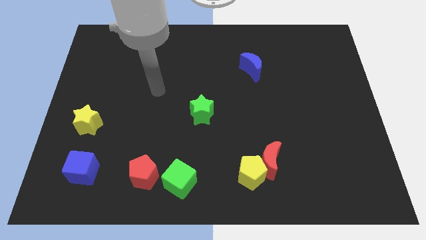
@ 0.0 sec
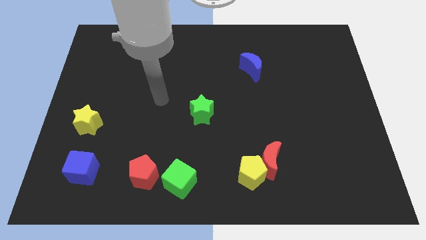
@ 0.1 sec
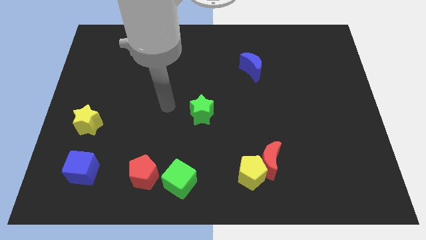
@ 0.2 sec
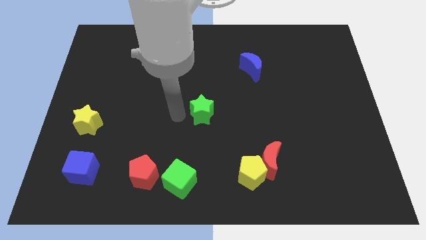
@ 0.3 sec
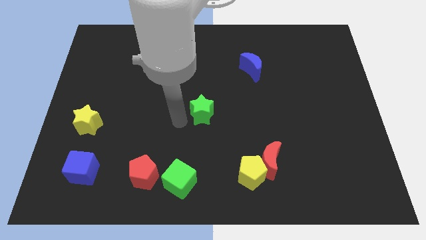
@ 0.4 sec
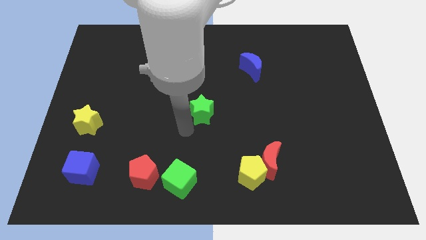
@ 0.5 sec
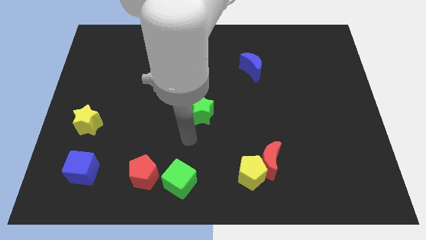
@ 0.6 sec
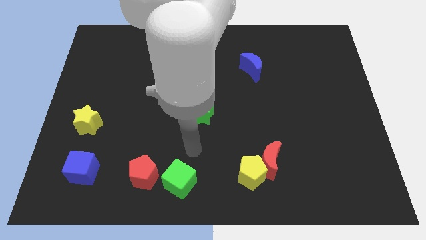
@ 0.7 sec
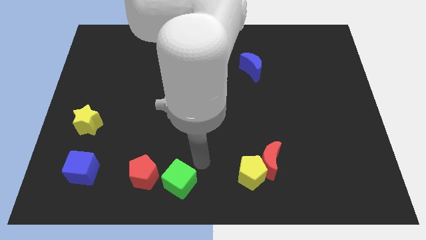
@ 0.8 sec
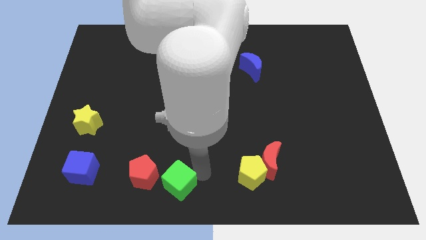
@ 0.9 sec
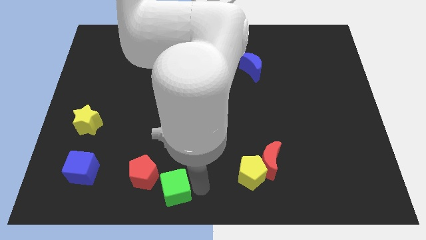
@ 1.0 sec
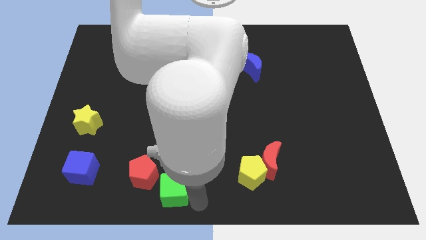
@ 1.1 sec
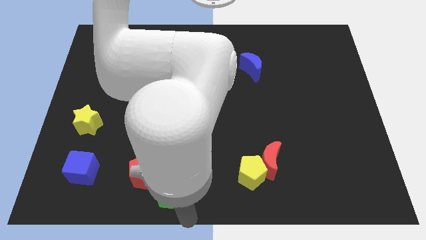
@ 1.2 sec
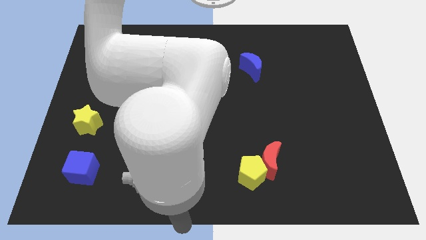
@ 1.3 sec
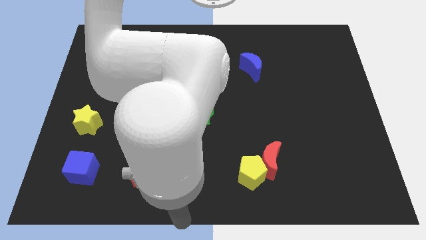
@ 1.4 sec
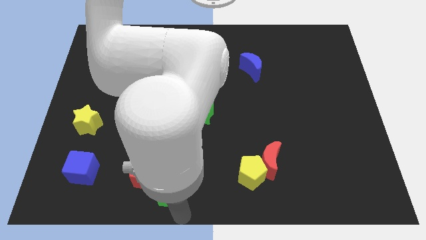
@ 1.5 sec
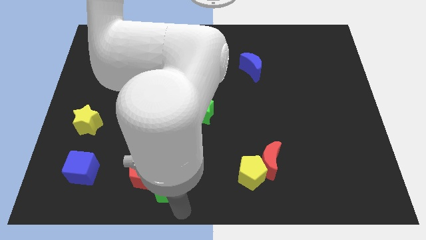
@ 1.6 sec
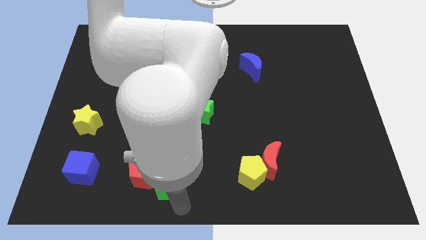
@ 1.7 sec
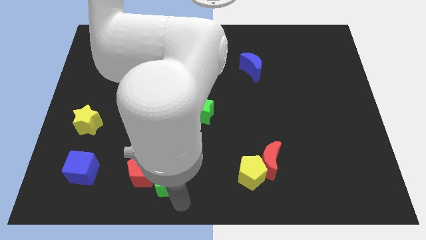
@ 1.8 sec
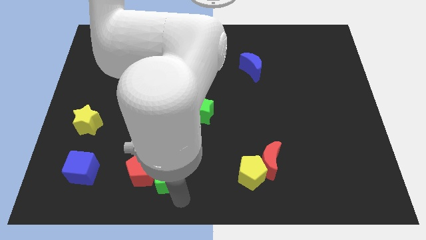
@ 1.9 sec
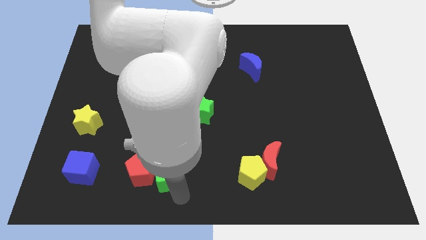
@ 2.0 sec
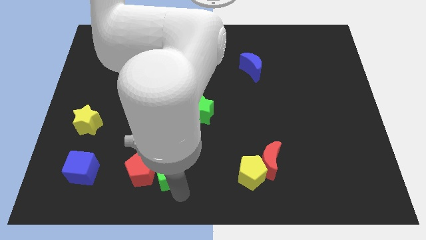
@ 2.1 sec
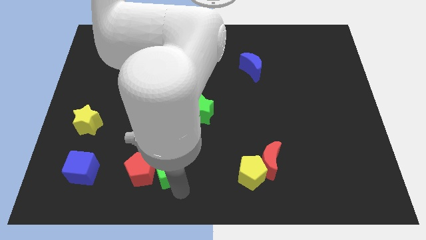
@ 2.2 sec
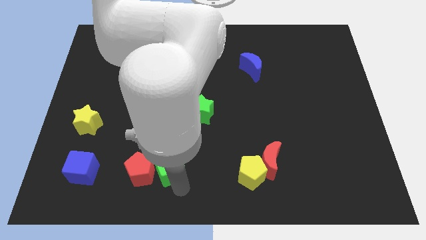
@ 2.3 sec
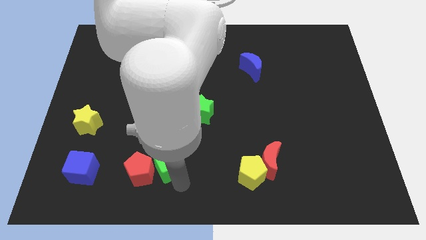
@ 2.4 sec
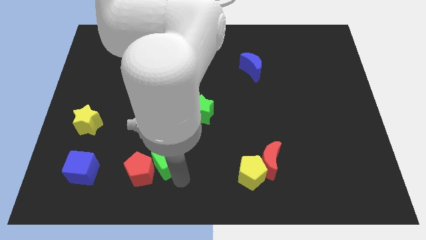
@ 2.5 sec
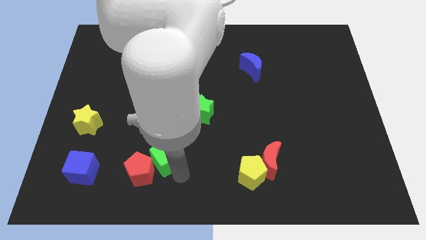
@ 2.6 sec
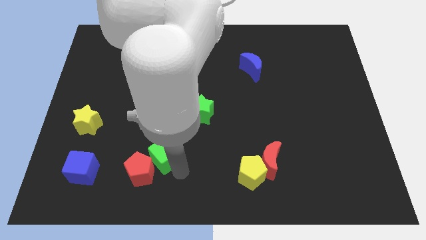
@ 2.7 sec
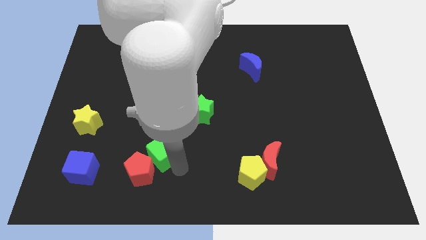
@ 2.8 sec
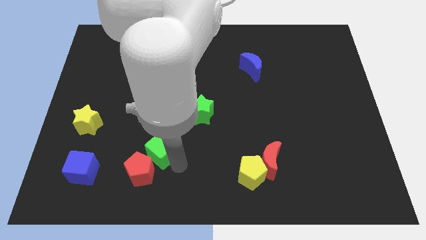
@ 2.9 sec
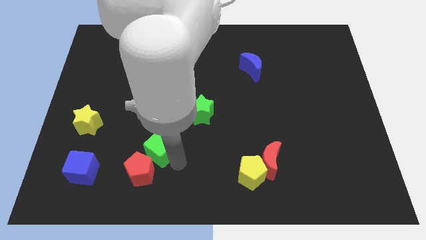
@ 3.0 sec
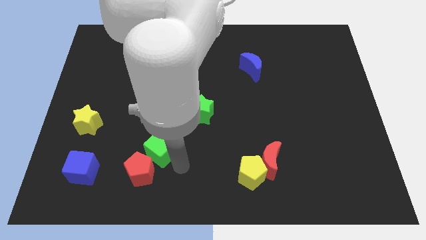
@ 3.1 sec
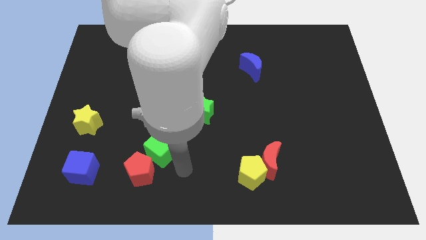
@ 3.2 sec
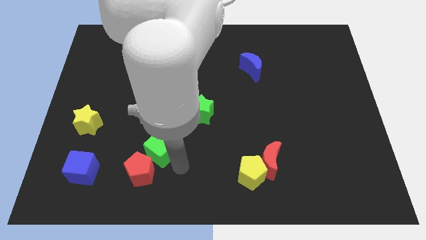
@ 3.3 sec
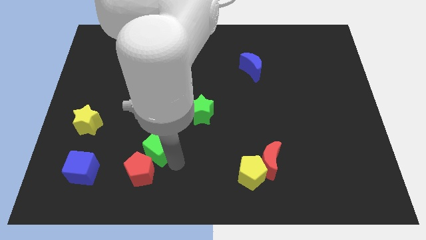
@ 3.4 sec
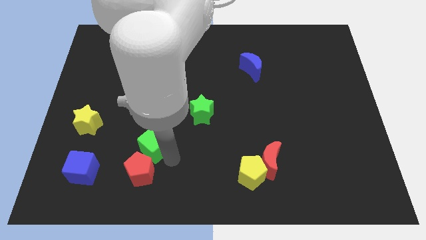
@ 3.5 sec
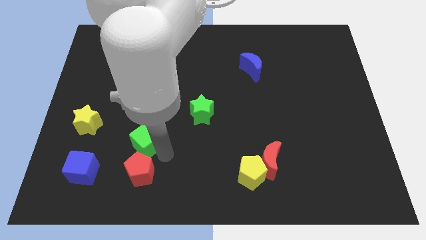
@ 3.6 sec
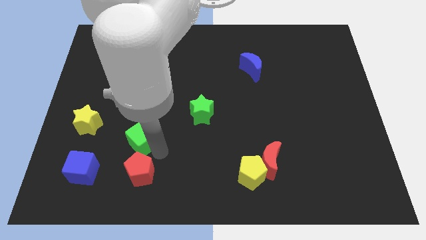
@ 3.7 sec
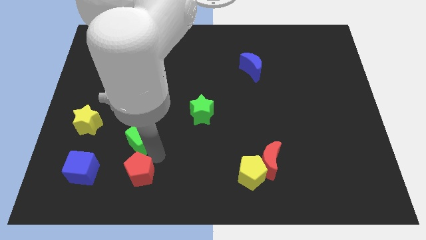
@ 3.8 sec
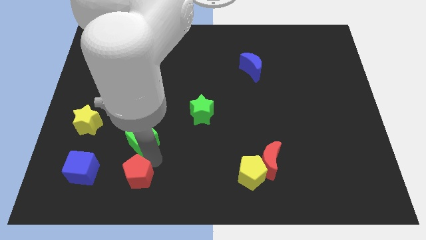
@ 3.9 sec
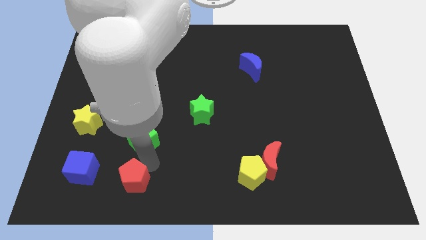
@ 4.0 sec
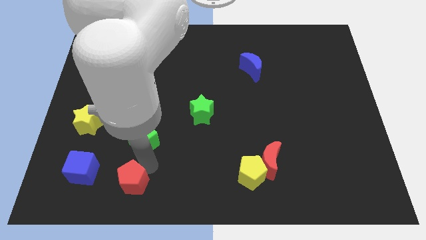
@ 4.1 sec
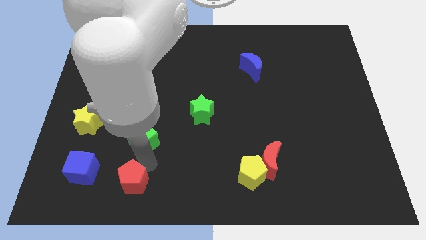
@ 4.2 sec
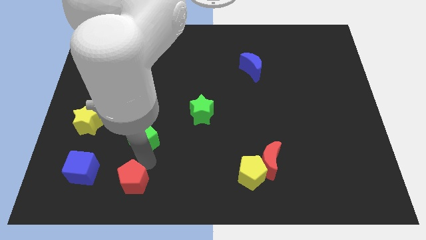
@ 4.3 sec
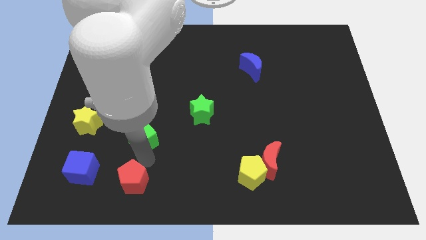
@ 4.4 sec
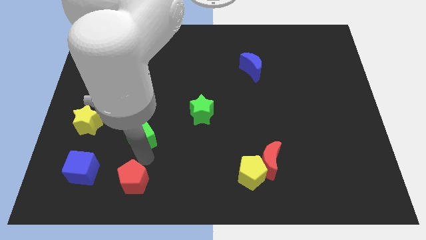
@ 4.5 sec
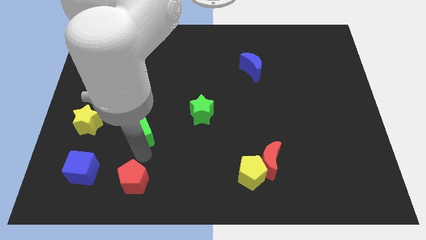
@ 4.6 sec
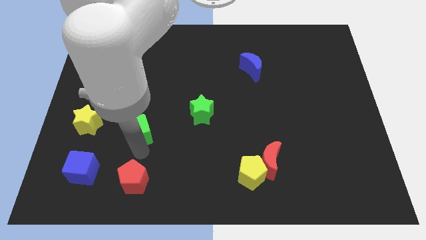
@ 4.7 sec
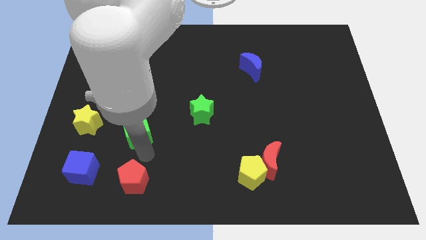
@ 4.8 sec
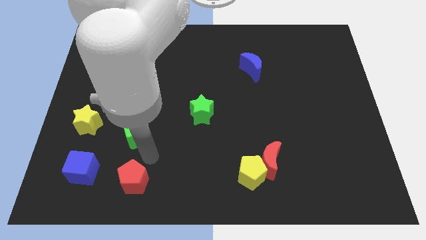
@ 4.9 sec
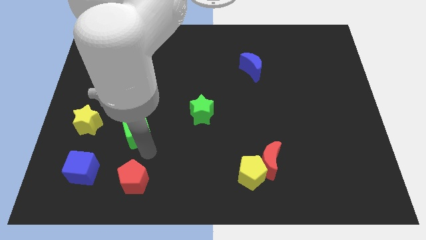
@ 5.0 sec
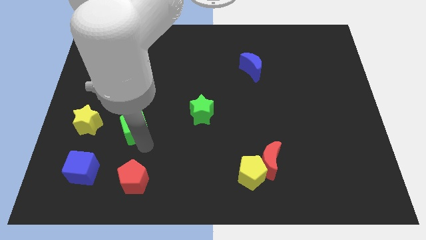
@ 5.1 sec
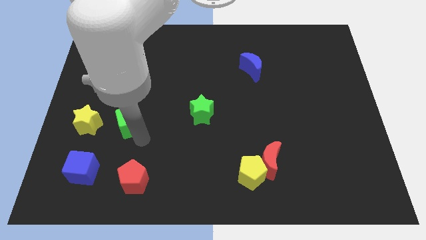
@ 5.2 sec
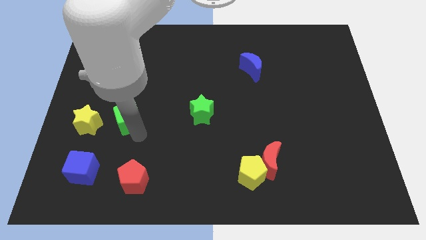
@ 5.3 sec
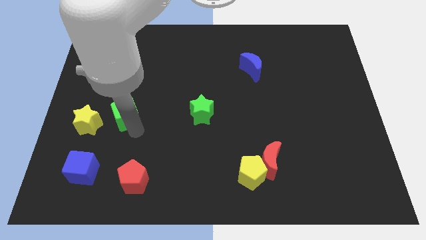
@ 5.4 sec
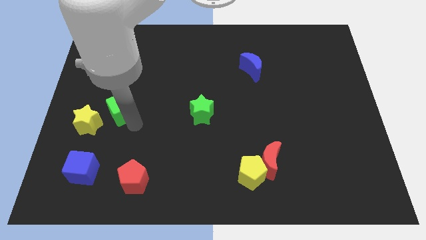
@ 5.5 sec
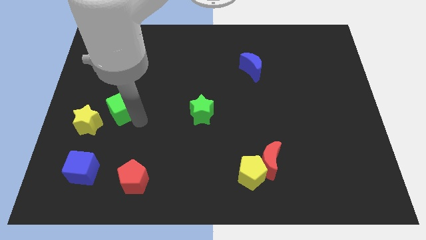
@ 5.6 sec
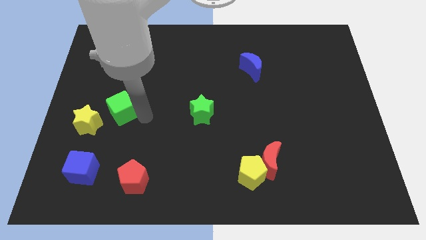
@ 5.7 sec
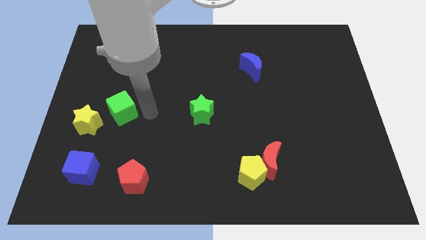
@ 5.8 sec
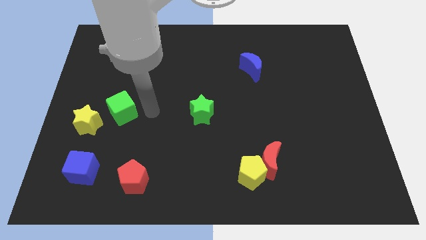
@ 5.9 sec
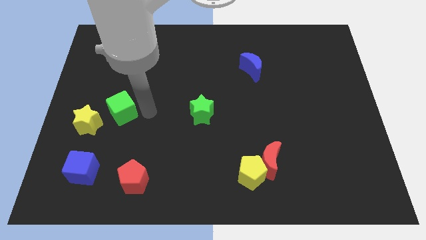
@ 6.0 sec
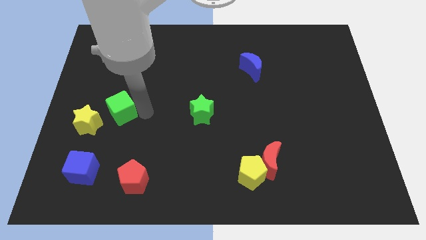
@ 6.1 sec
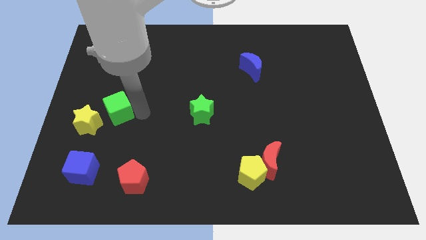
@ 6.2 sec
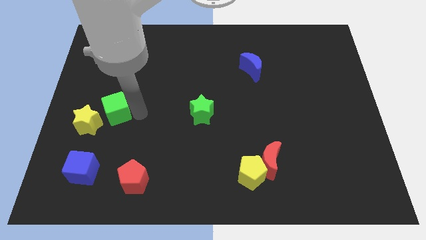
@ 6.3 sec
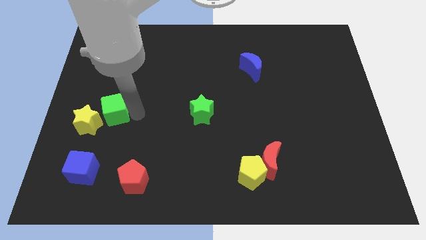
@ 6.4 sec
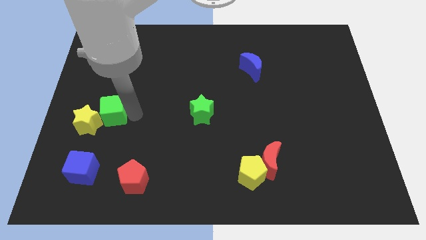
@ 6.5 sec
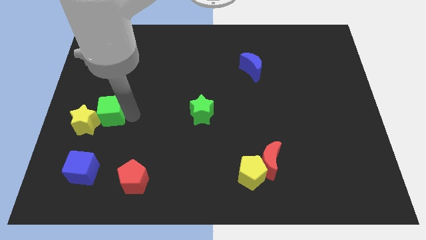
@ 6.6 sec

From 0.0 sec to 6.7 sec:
push the green cube to the top side of the blue cube

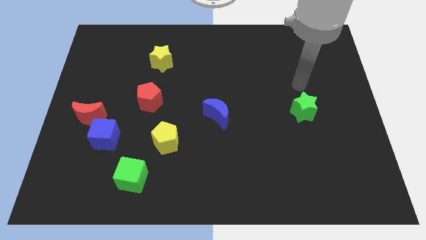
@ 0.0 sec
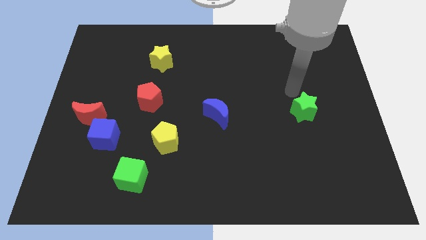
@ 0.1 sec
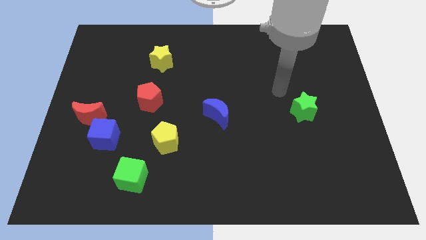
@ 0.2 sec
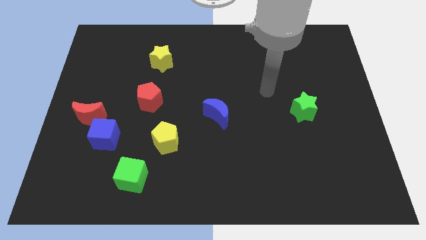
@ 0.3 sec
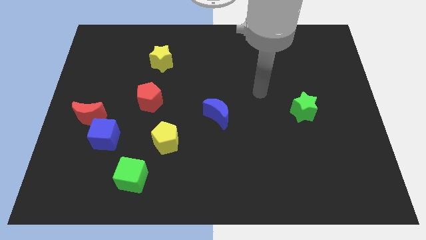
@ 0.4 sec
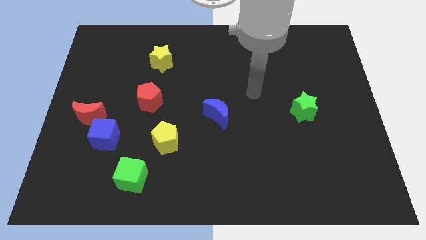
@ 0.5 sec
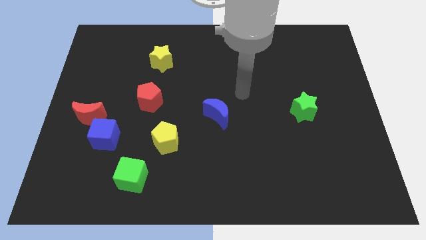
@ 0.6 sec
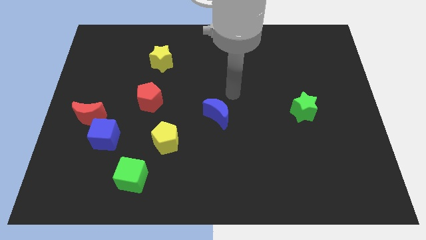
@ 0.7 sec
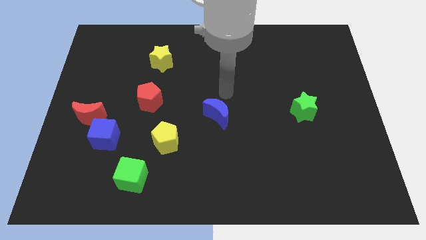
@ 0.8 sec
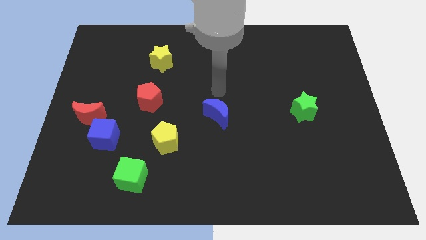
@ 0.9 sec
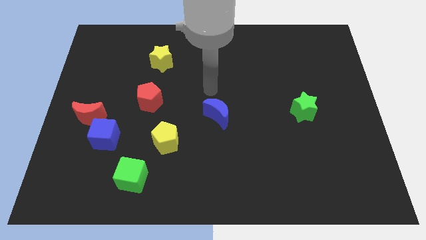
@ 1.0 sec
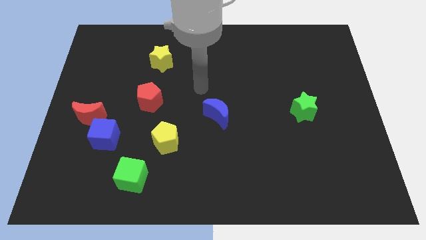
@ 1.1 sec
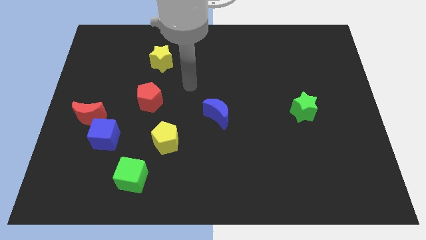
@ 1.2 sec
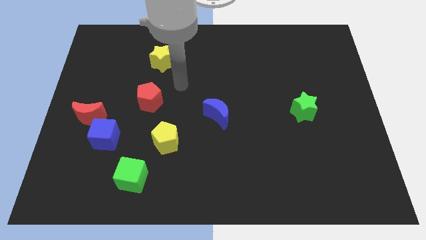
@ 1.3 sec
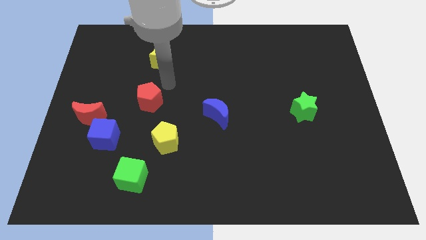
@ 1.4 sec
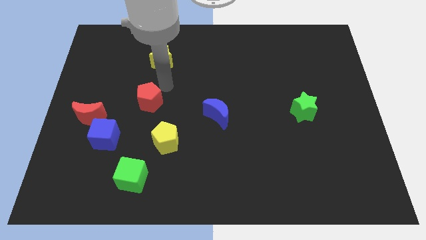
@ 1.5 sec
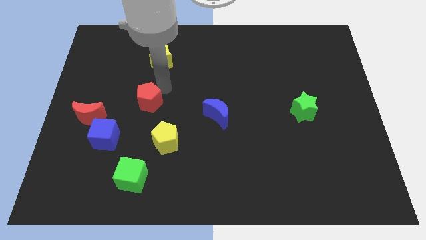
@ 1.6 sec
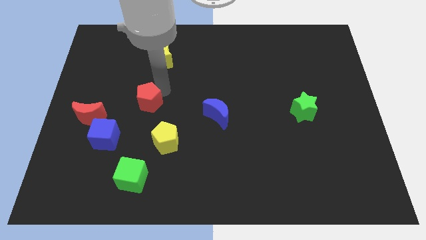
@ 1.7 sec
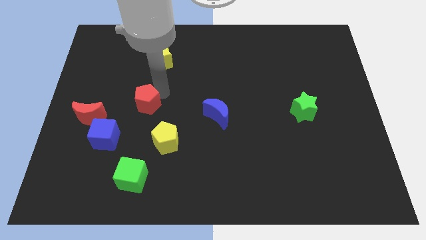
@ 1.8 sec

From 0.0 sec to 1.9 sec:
put the red pentagon to the top right of the blue cube
